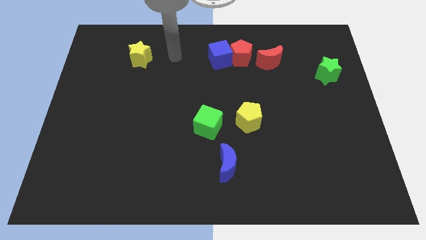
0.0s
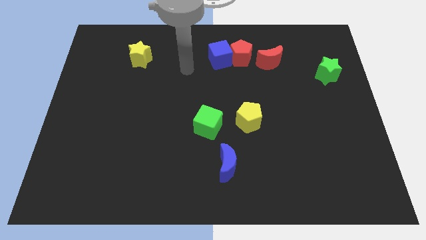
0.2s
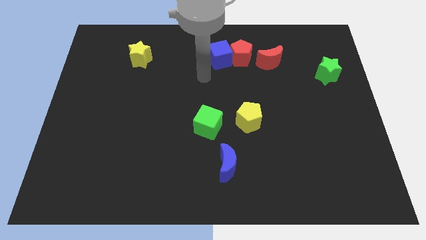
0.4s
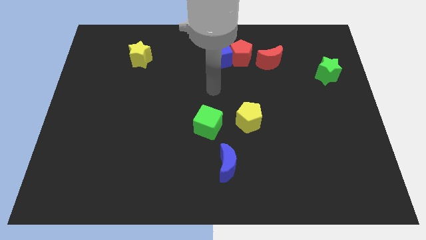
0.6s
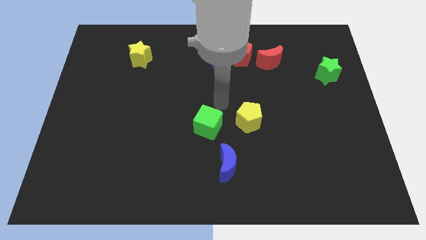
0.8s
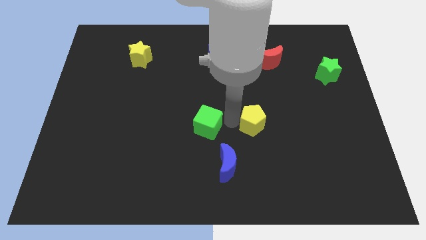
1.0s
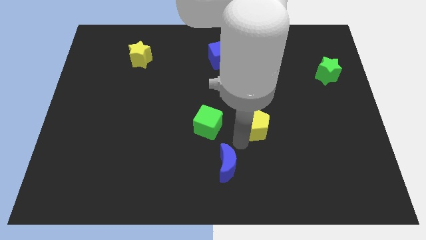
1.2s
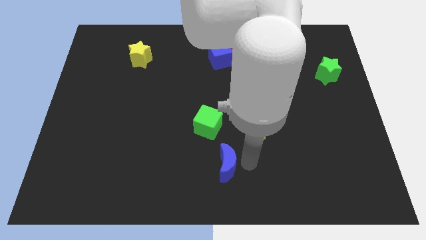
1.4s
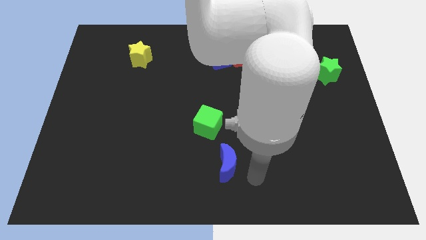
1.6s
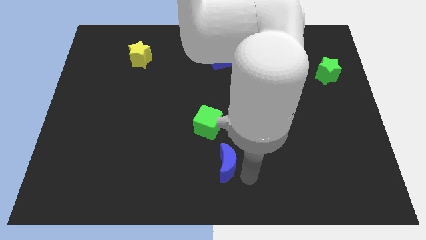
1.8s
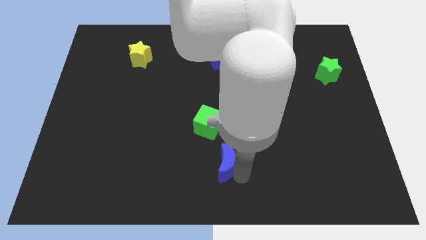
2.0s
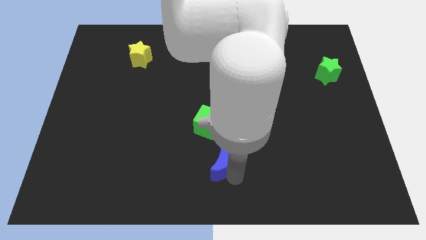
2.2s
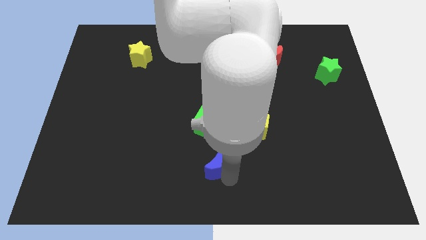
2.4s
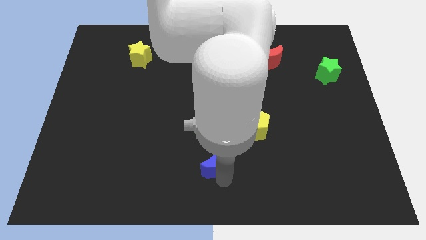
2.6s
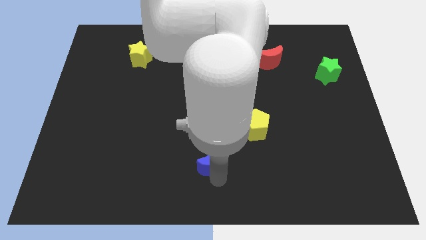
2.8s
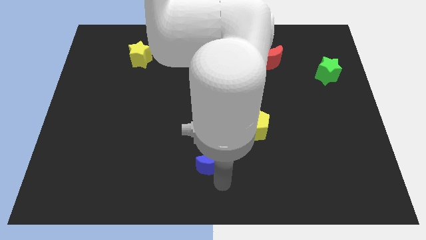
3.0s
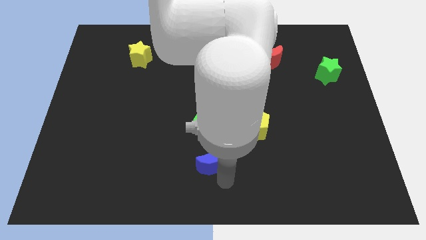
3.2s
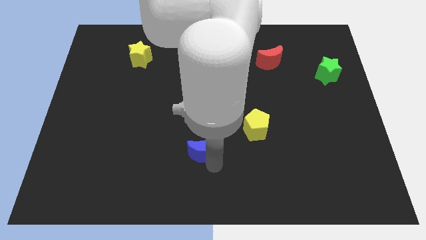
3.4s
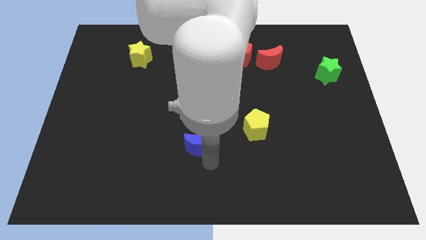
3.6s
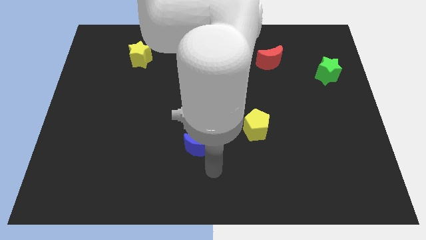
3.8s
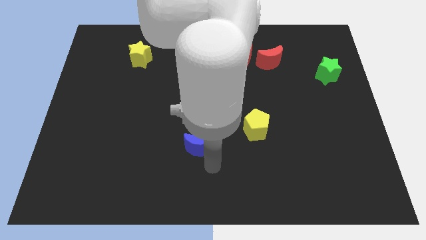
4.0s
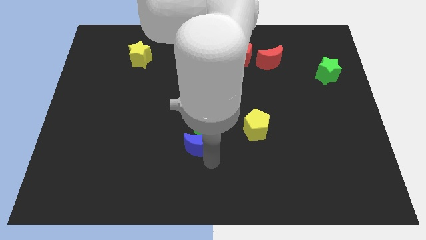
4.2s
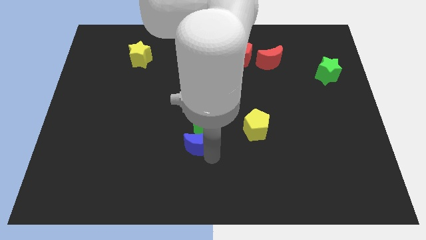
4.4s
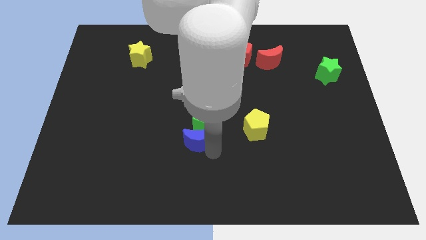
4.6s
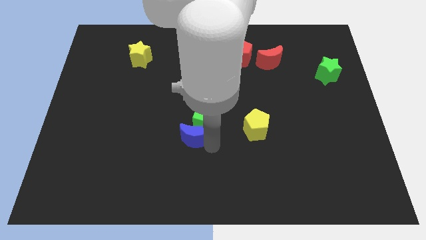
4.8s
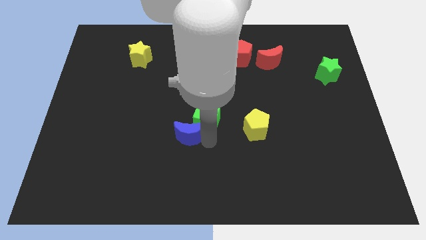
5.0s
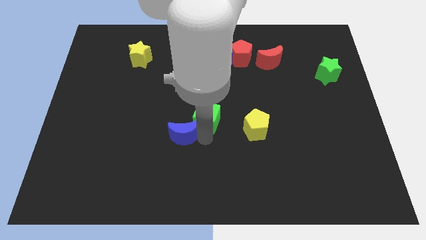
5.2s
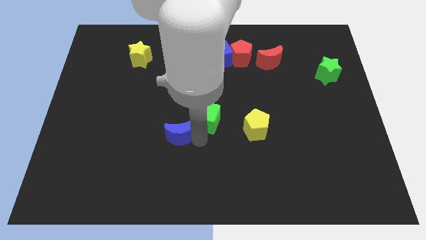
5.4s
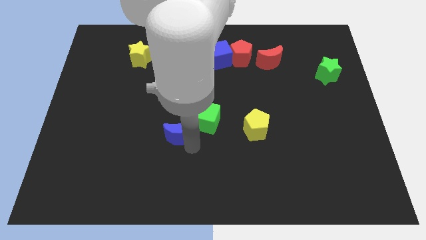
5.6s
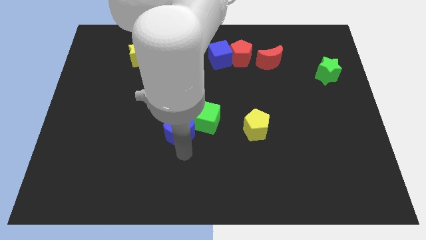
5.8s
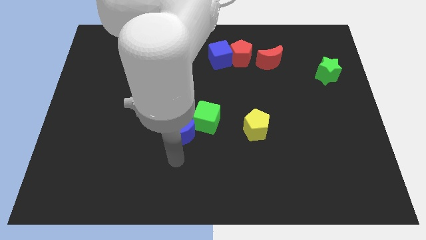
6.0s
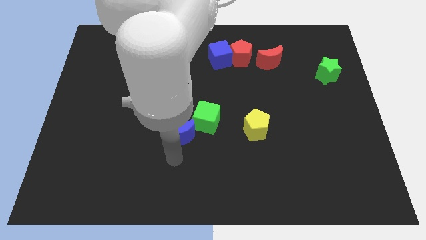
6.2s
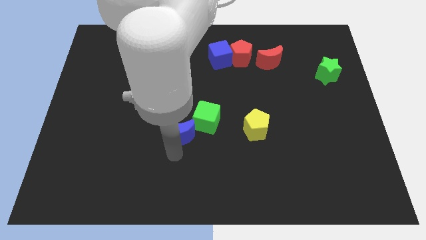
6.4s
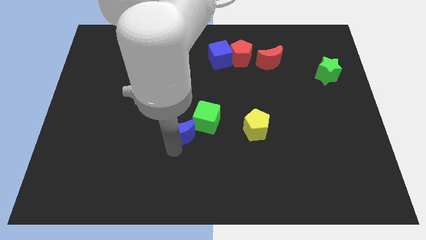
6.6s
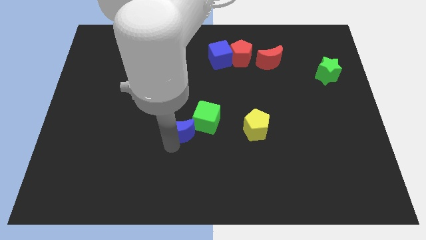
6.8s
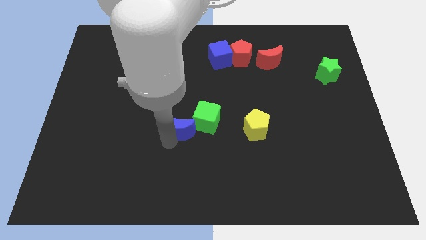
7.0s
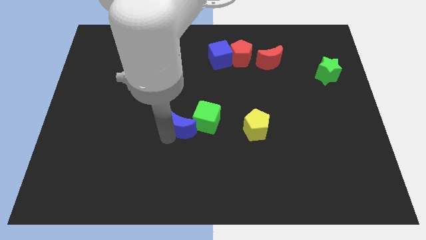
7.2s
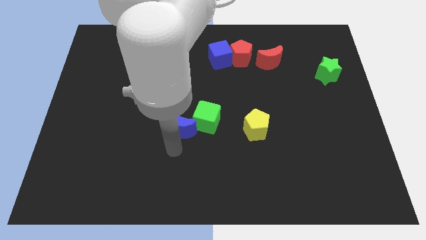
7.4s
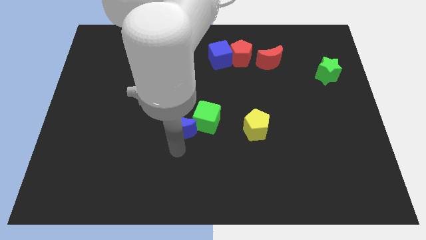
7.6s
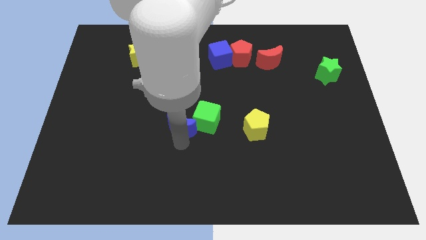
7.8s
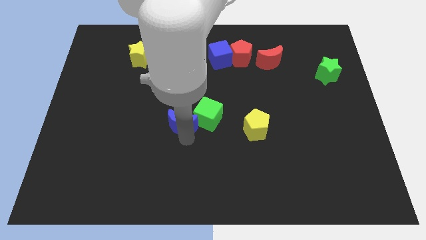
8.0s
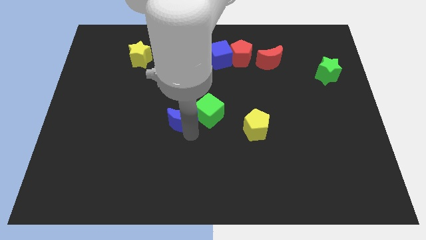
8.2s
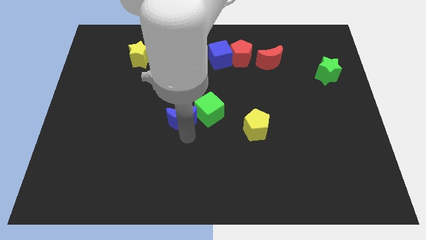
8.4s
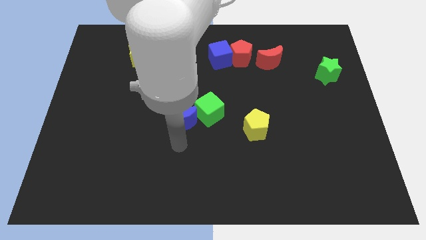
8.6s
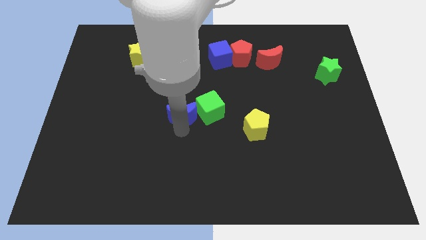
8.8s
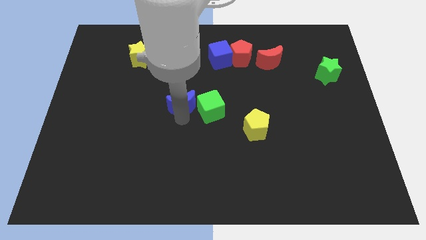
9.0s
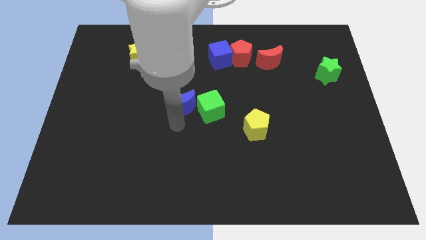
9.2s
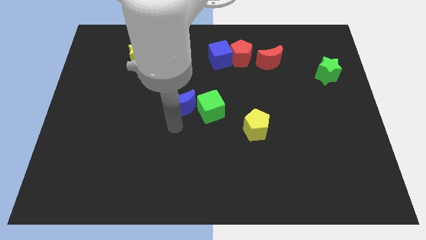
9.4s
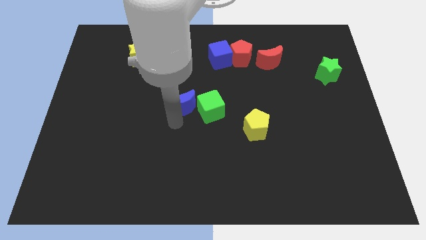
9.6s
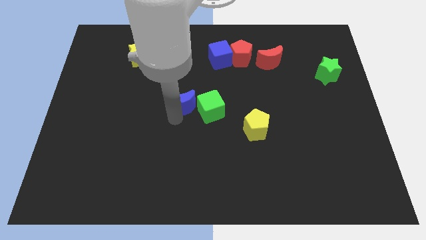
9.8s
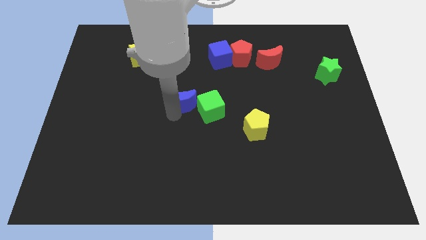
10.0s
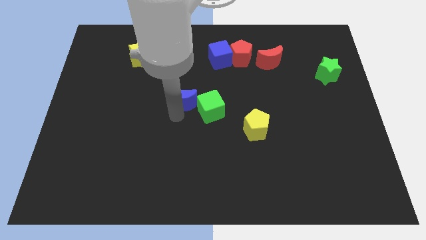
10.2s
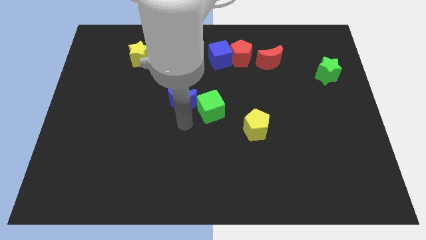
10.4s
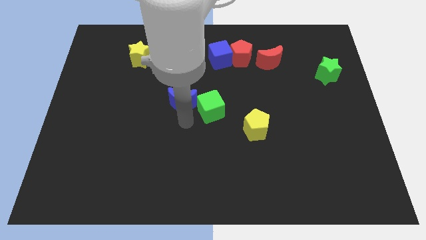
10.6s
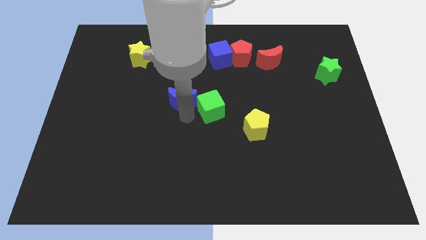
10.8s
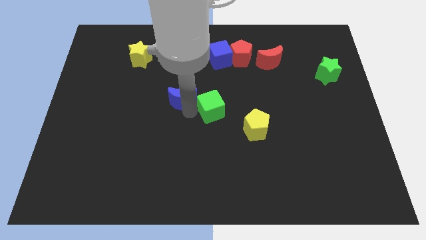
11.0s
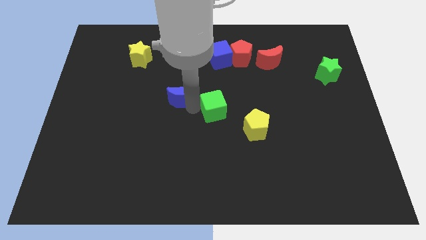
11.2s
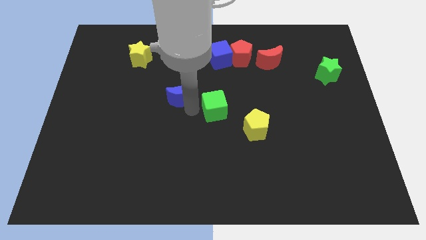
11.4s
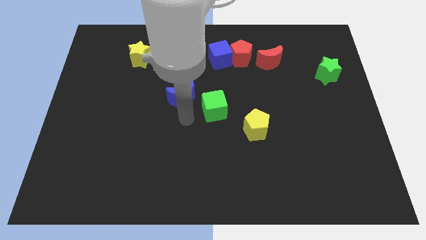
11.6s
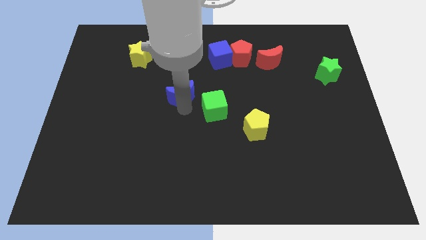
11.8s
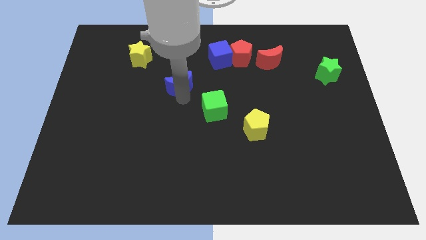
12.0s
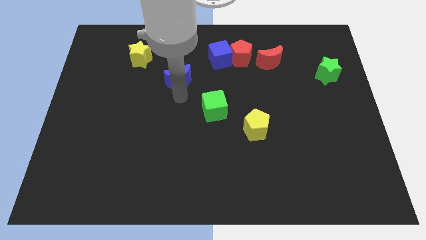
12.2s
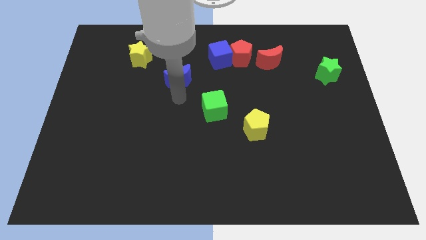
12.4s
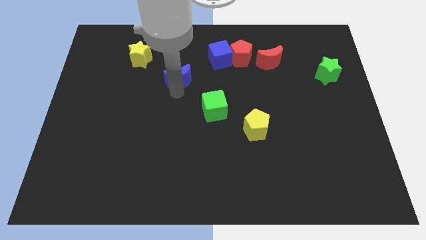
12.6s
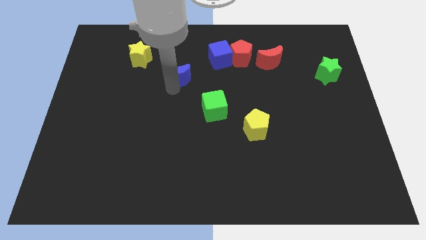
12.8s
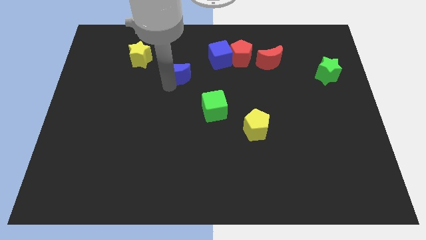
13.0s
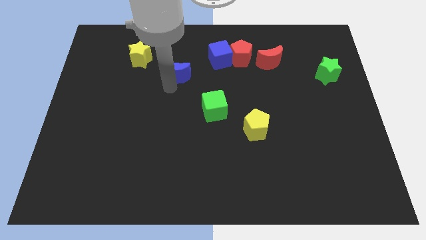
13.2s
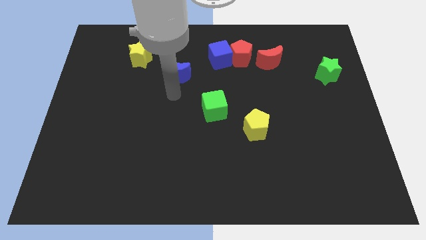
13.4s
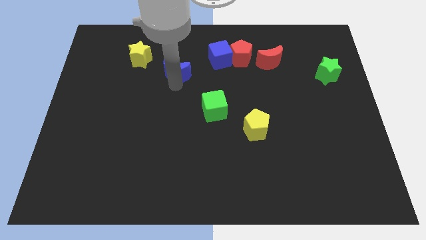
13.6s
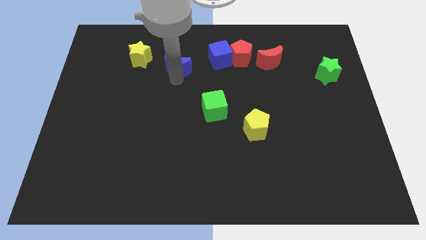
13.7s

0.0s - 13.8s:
push the blue moon just right of the yellow star

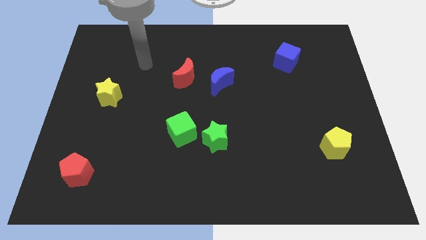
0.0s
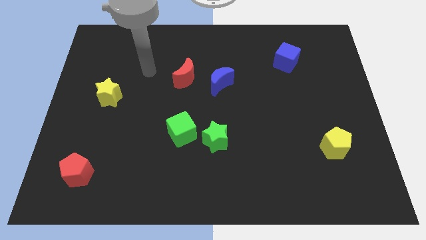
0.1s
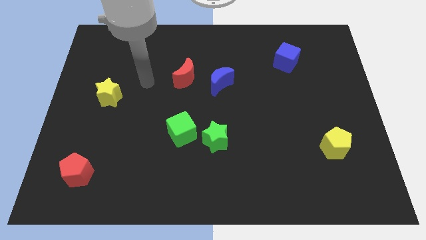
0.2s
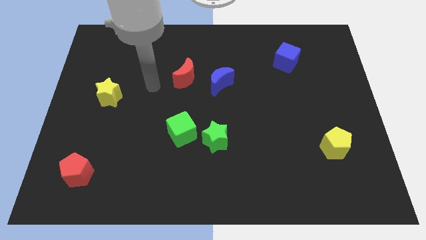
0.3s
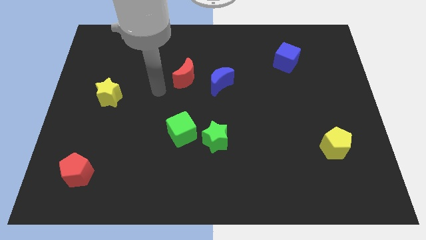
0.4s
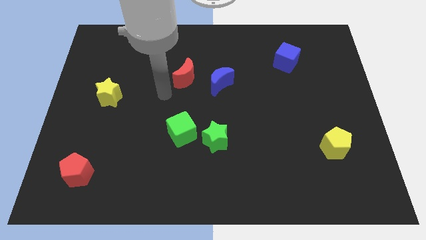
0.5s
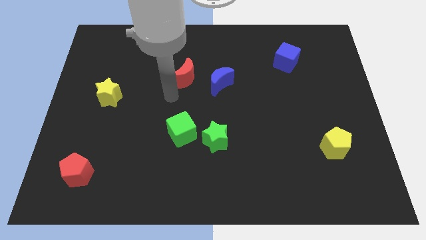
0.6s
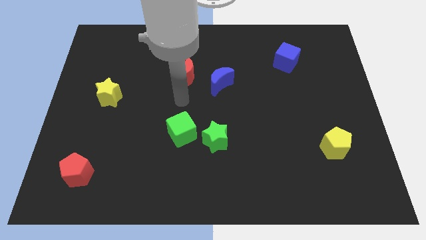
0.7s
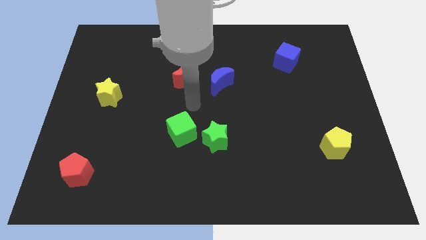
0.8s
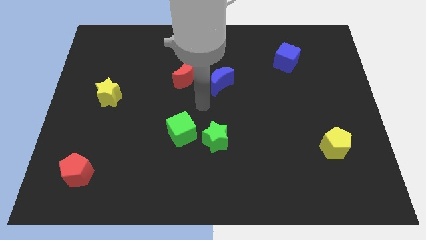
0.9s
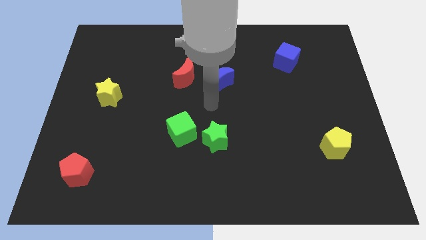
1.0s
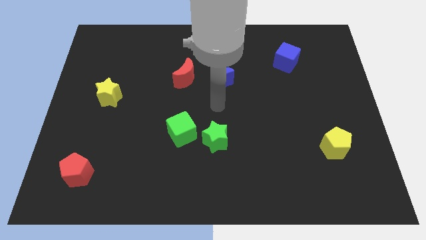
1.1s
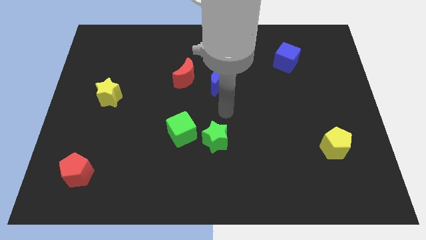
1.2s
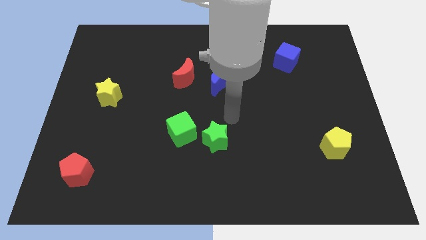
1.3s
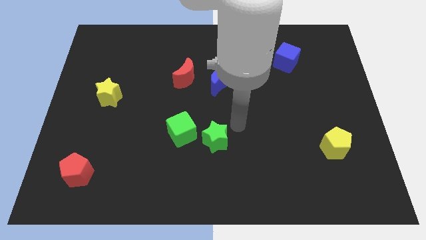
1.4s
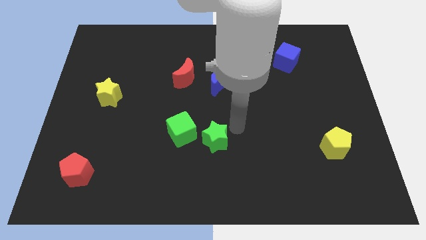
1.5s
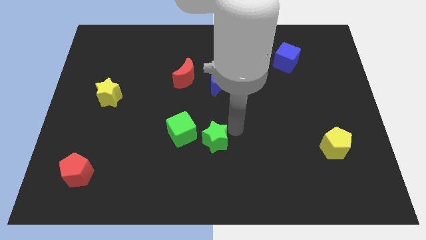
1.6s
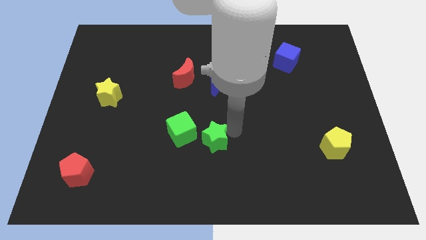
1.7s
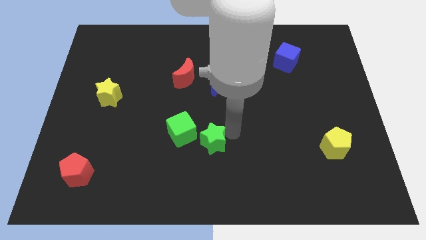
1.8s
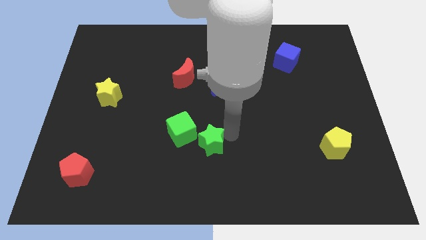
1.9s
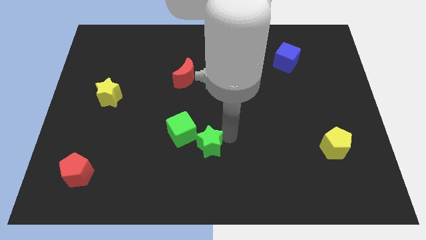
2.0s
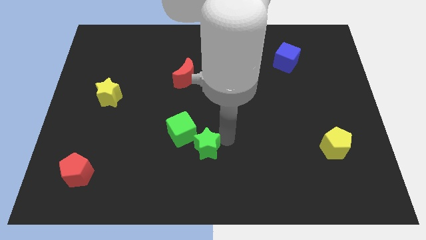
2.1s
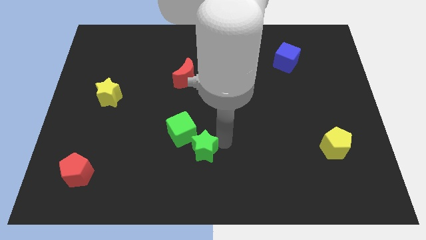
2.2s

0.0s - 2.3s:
slide the green star below the green cube
